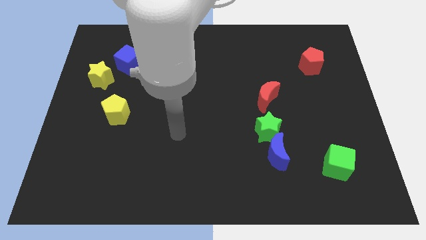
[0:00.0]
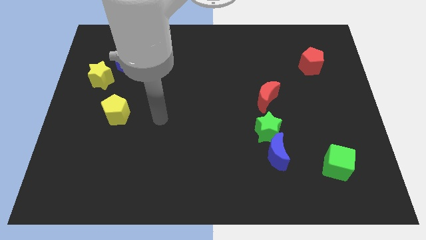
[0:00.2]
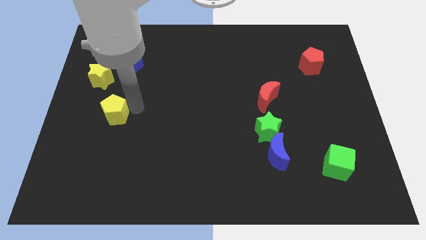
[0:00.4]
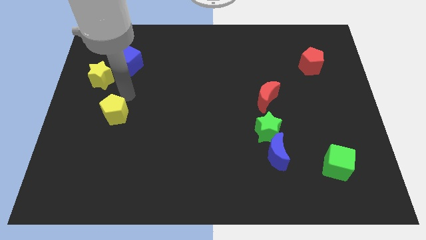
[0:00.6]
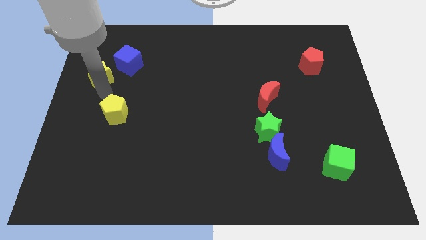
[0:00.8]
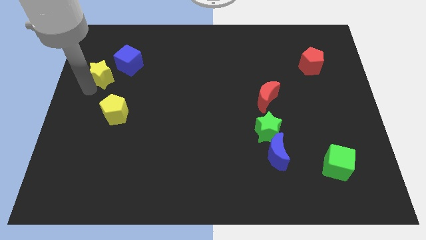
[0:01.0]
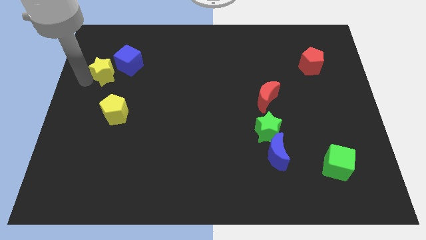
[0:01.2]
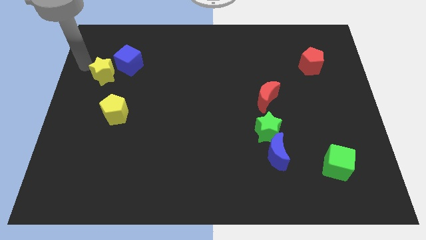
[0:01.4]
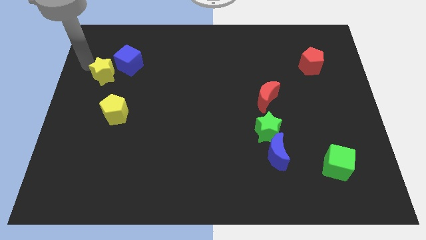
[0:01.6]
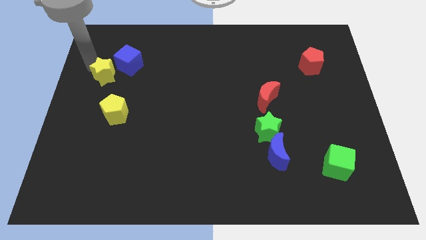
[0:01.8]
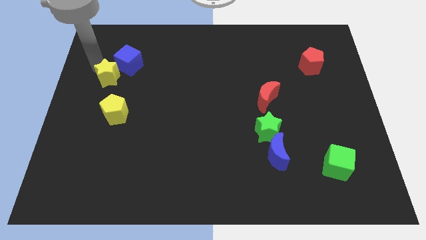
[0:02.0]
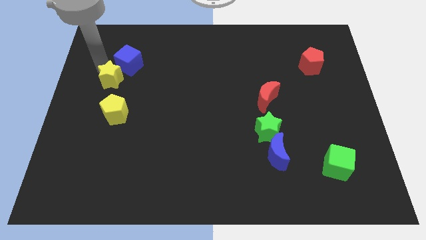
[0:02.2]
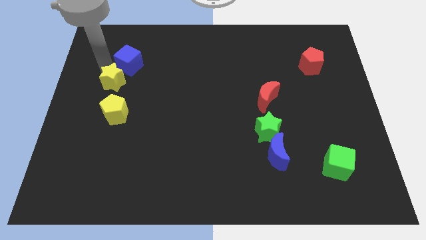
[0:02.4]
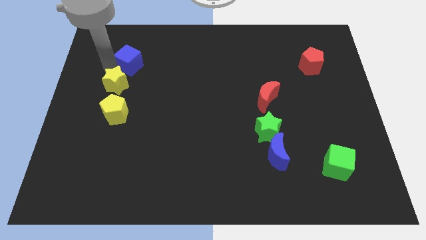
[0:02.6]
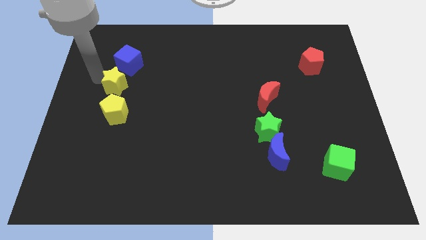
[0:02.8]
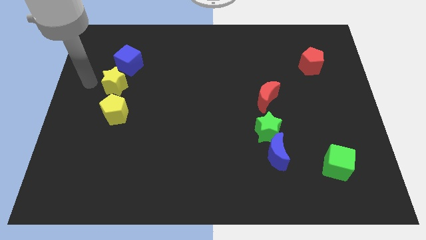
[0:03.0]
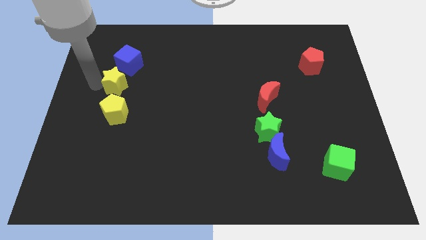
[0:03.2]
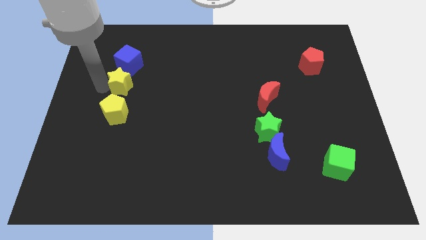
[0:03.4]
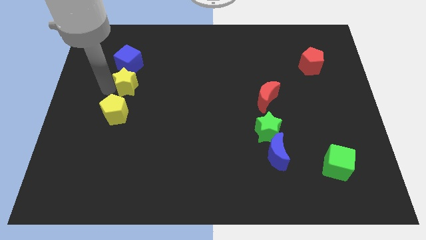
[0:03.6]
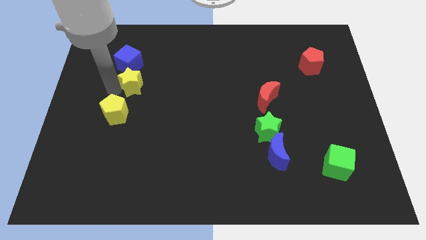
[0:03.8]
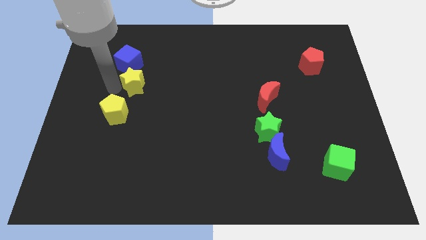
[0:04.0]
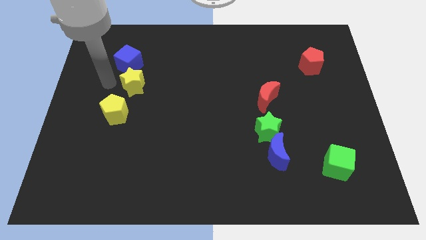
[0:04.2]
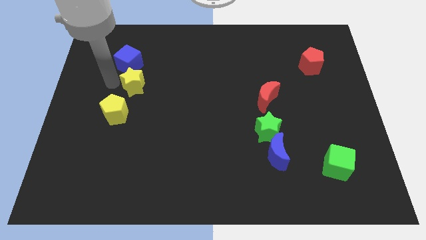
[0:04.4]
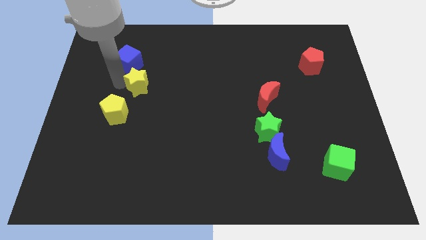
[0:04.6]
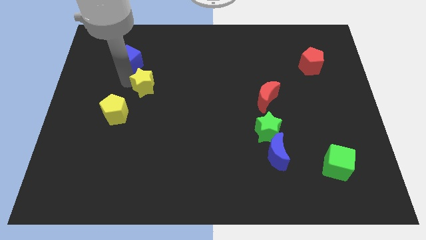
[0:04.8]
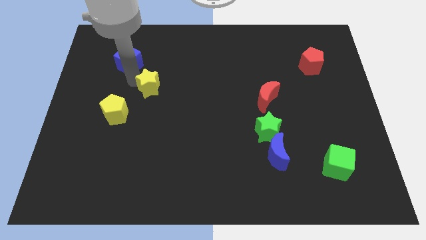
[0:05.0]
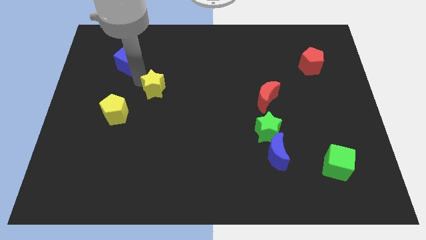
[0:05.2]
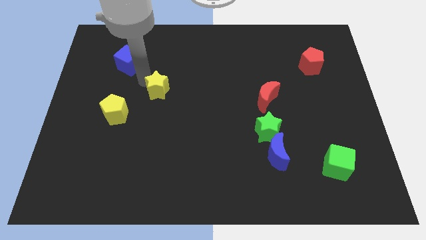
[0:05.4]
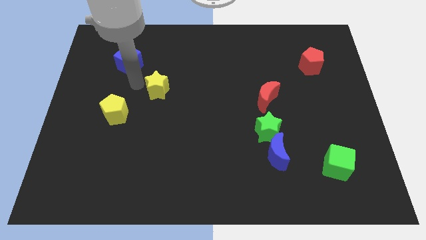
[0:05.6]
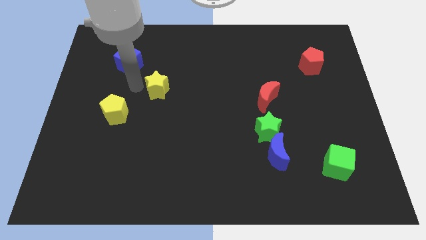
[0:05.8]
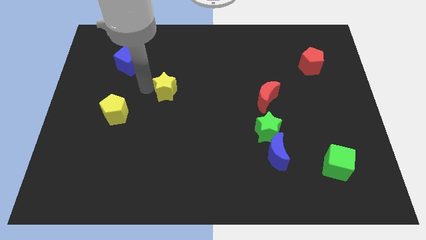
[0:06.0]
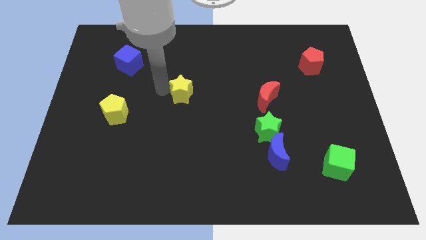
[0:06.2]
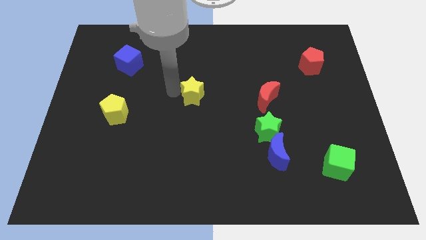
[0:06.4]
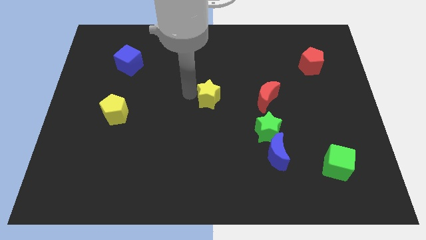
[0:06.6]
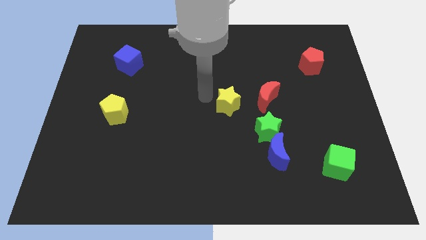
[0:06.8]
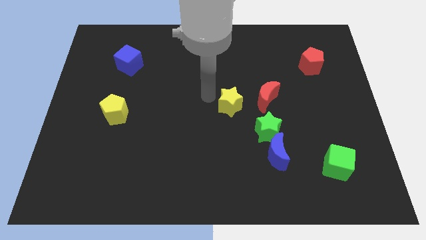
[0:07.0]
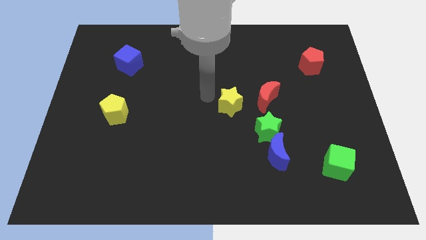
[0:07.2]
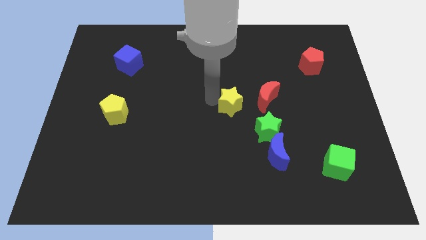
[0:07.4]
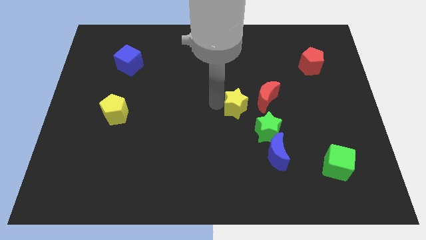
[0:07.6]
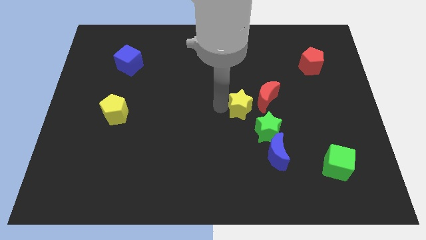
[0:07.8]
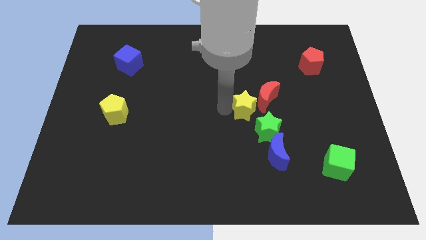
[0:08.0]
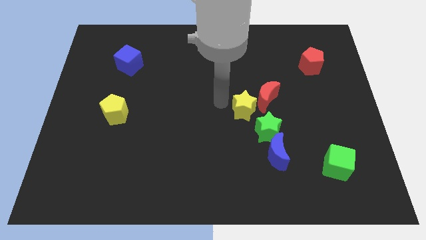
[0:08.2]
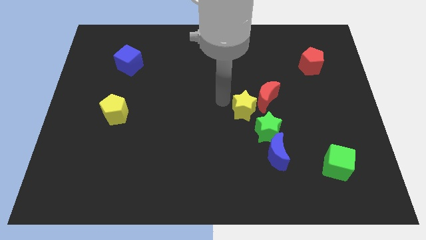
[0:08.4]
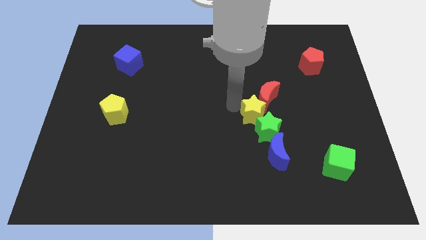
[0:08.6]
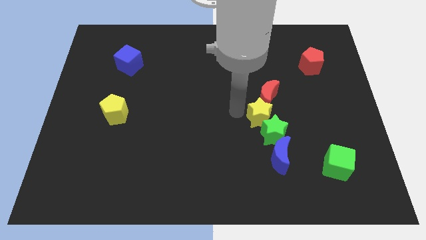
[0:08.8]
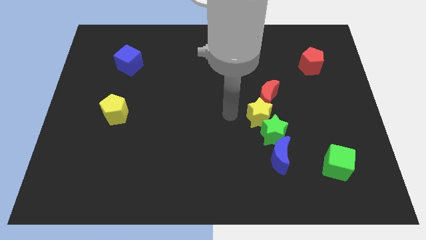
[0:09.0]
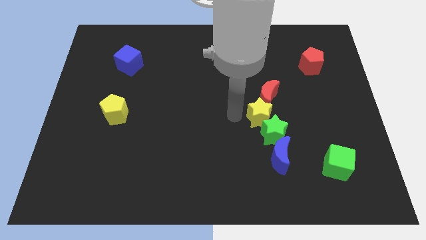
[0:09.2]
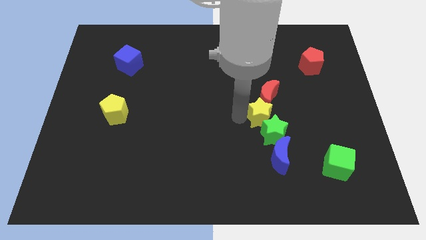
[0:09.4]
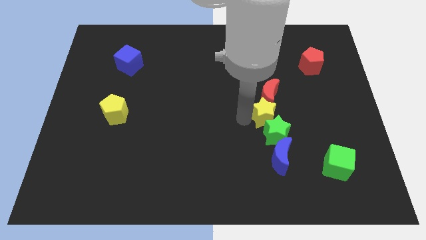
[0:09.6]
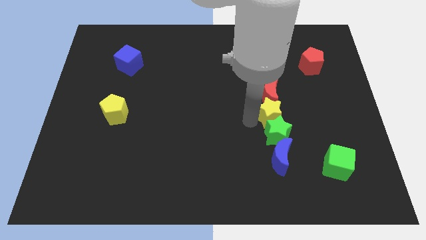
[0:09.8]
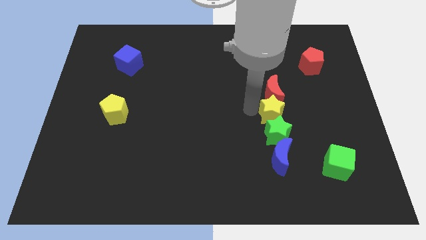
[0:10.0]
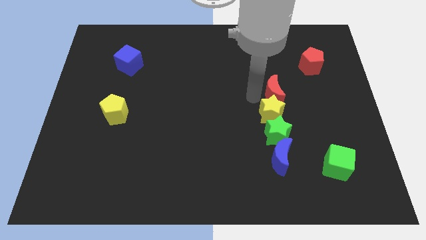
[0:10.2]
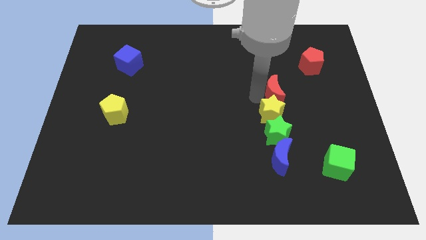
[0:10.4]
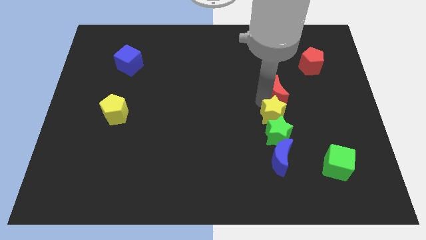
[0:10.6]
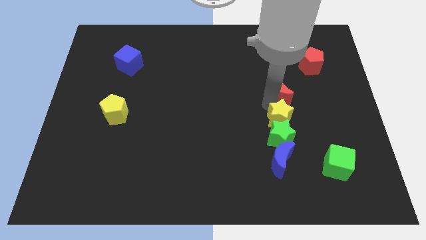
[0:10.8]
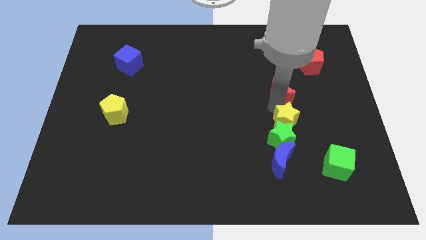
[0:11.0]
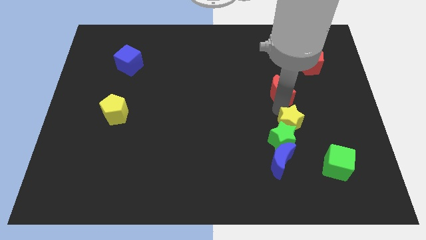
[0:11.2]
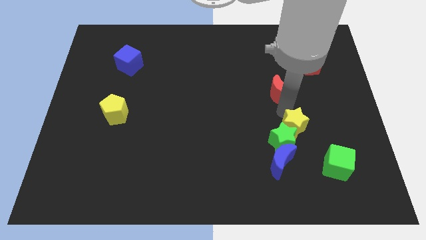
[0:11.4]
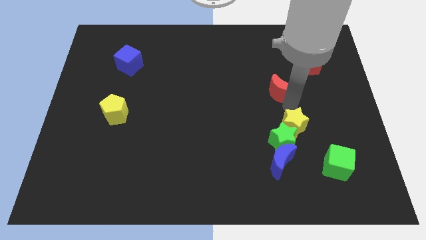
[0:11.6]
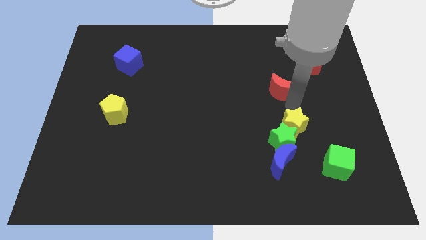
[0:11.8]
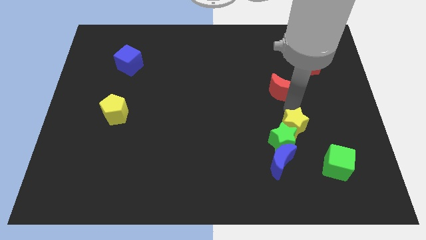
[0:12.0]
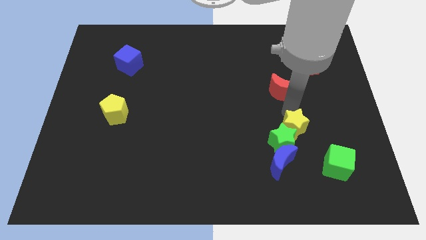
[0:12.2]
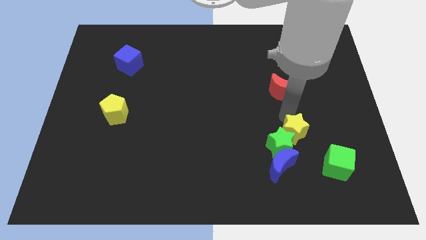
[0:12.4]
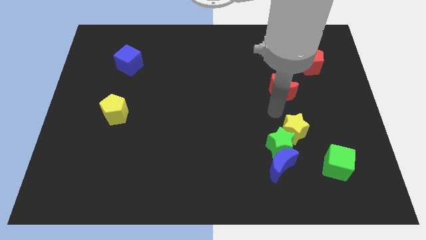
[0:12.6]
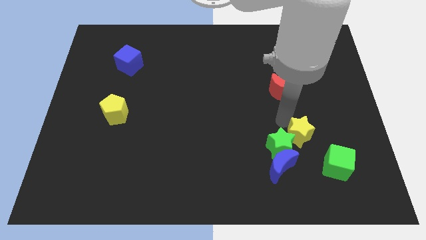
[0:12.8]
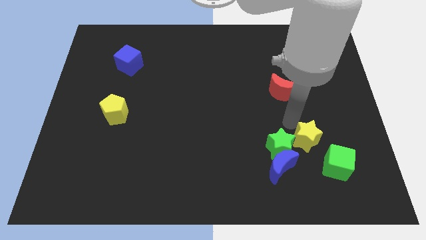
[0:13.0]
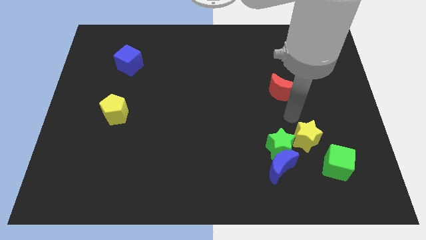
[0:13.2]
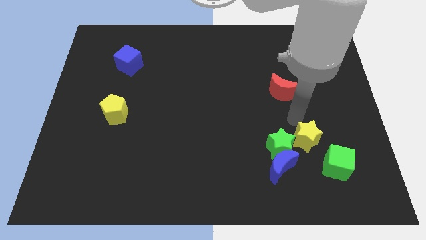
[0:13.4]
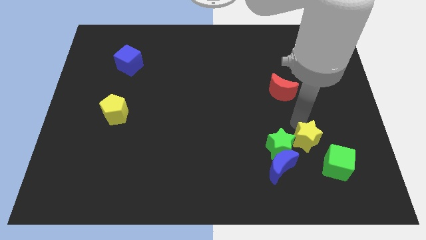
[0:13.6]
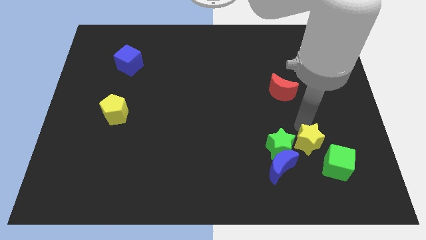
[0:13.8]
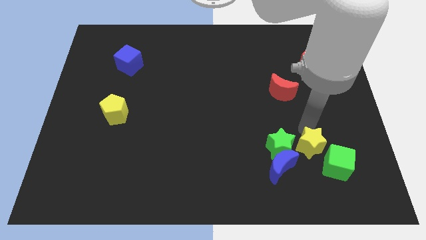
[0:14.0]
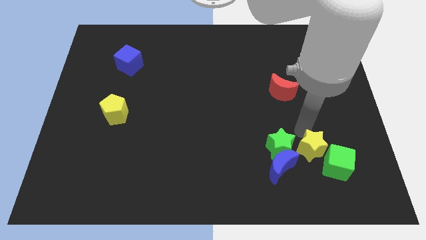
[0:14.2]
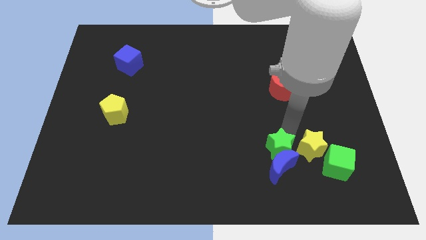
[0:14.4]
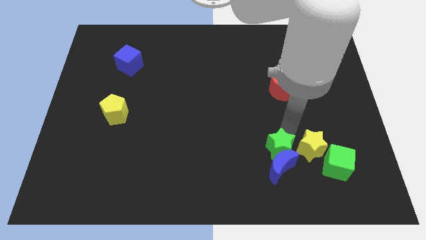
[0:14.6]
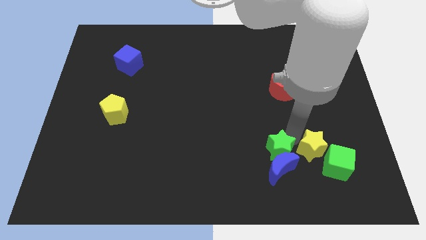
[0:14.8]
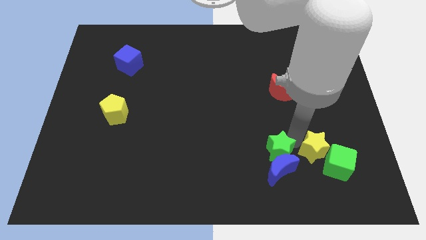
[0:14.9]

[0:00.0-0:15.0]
put the yellow star close to the green cube
